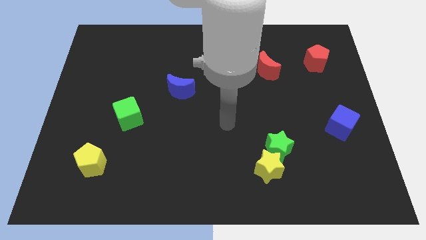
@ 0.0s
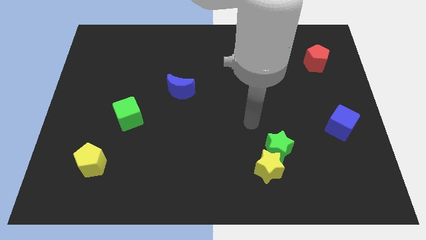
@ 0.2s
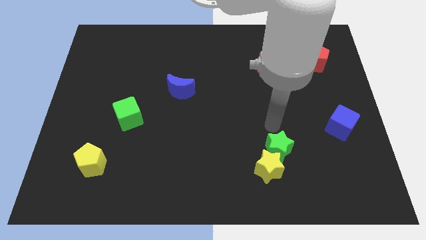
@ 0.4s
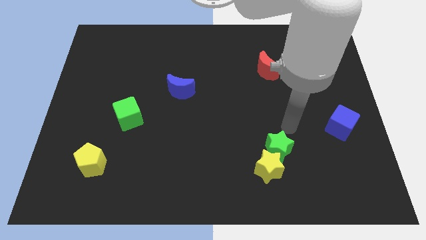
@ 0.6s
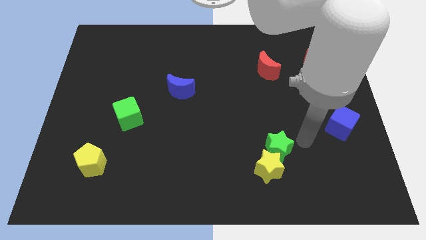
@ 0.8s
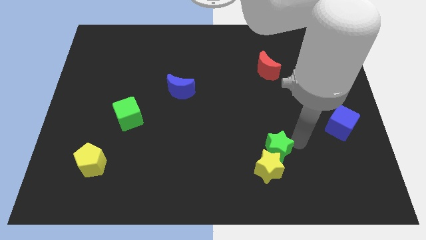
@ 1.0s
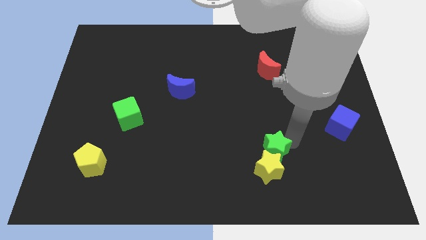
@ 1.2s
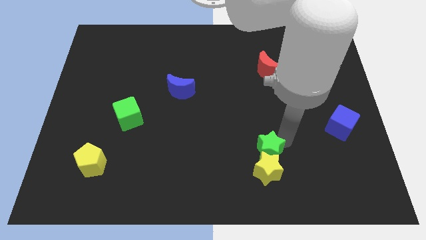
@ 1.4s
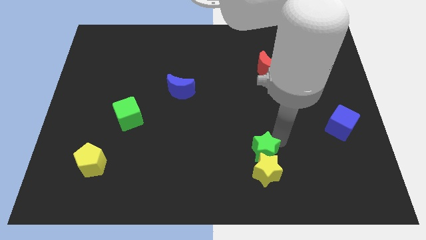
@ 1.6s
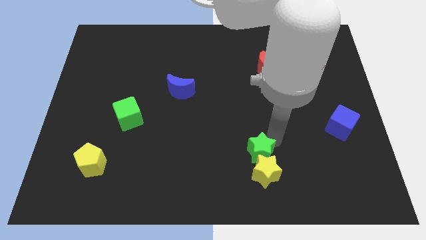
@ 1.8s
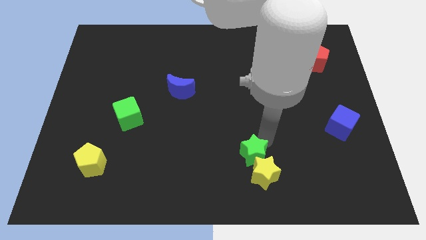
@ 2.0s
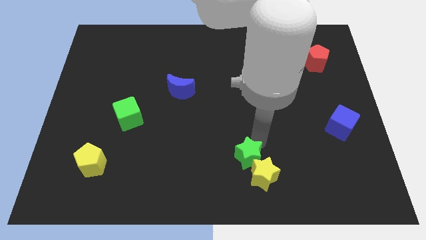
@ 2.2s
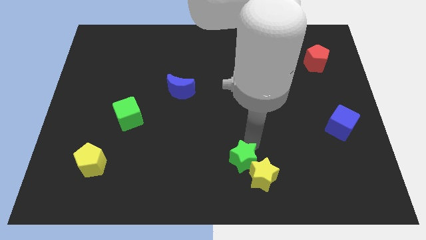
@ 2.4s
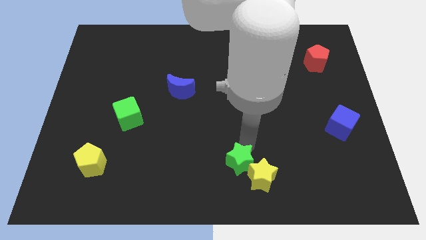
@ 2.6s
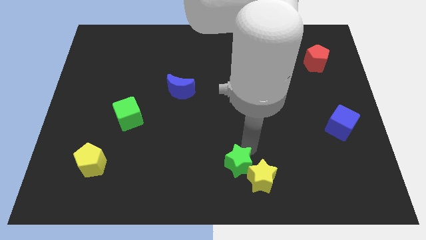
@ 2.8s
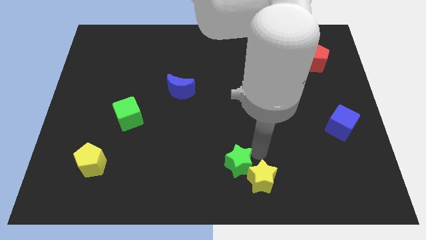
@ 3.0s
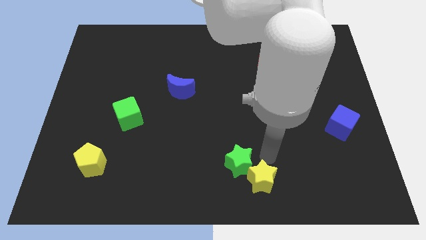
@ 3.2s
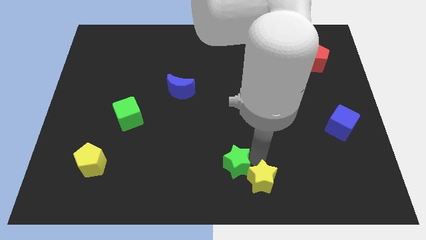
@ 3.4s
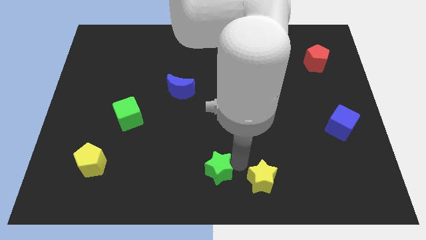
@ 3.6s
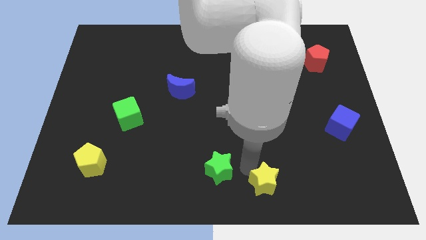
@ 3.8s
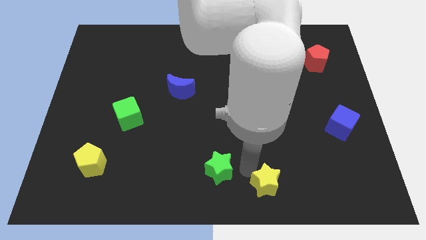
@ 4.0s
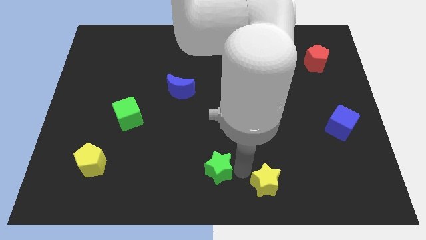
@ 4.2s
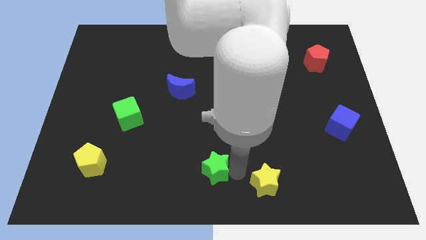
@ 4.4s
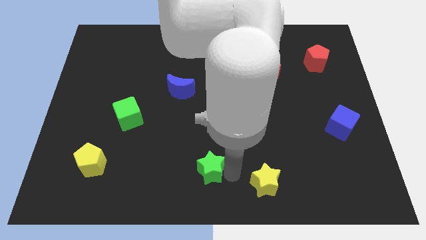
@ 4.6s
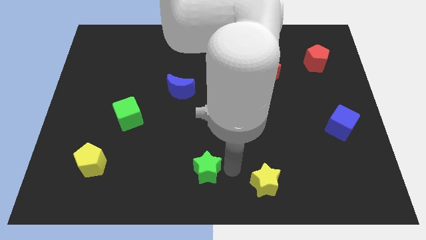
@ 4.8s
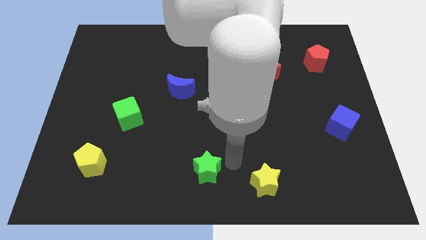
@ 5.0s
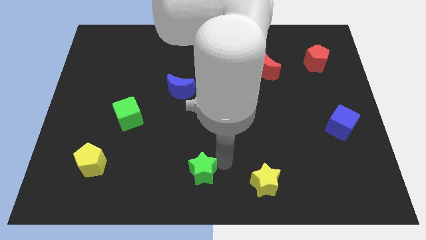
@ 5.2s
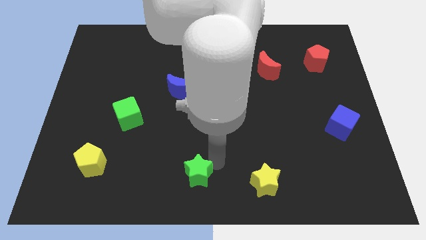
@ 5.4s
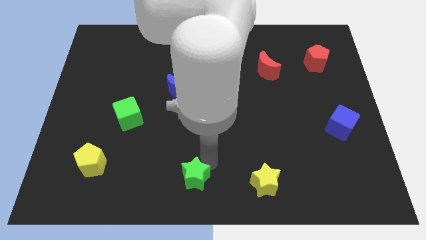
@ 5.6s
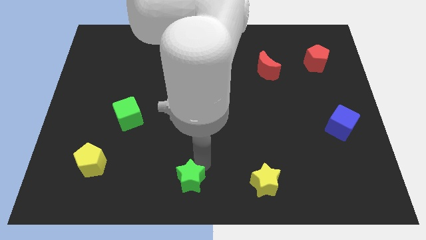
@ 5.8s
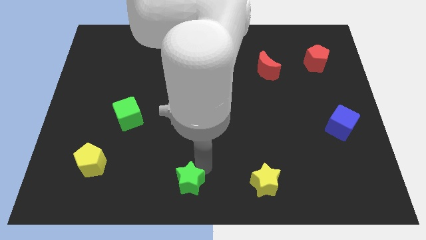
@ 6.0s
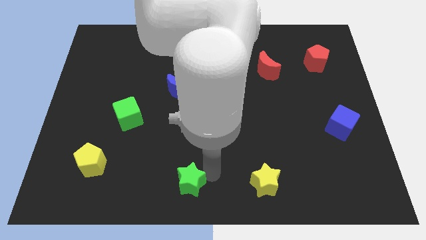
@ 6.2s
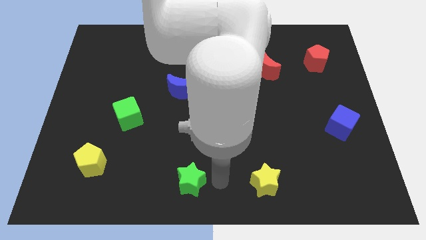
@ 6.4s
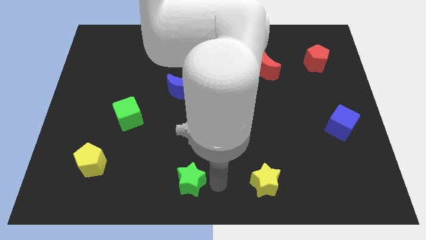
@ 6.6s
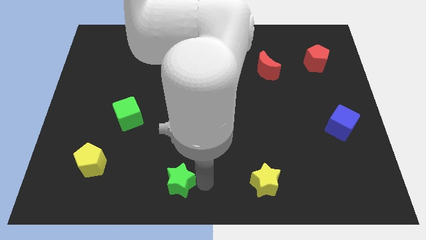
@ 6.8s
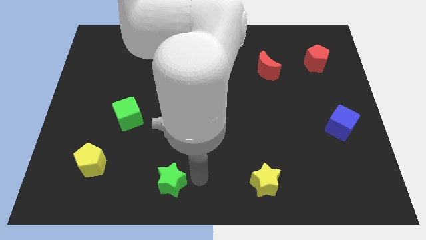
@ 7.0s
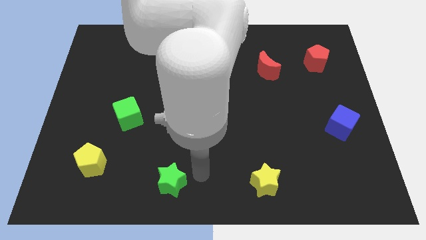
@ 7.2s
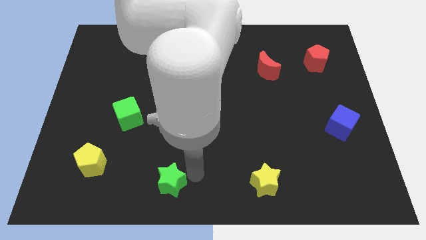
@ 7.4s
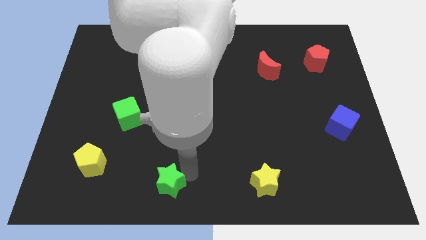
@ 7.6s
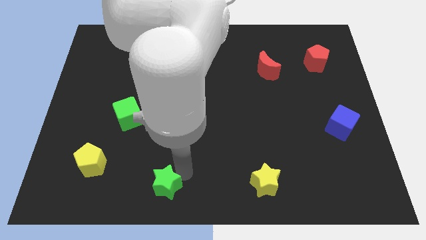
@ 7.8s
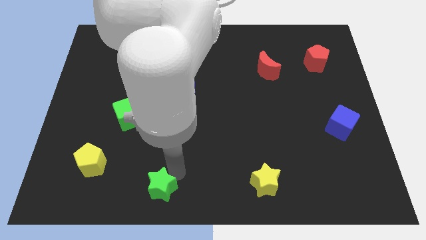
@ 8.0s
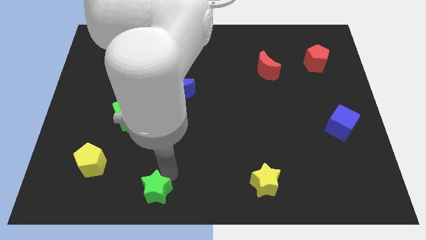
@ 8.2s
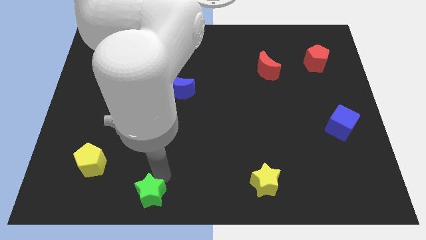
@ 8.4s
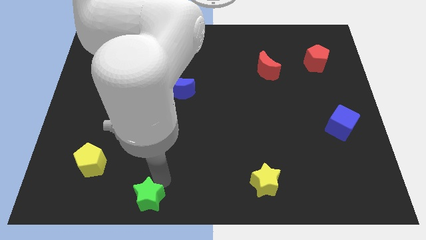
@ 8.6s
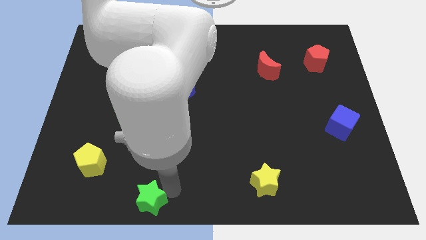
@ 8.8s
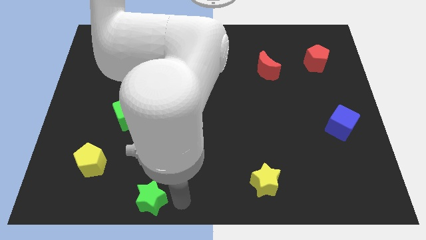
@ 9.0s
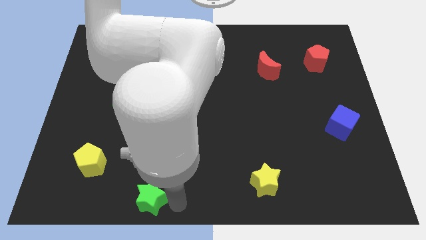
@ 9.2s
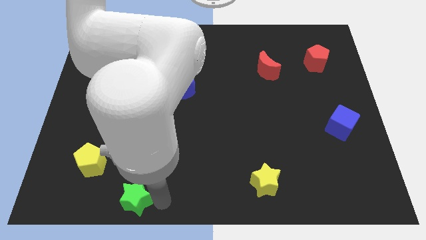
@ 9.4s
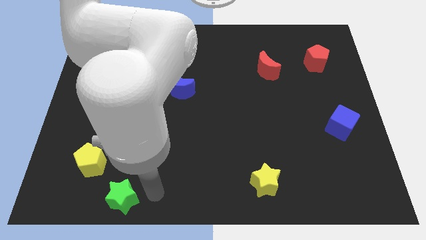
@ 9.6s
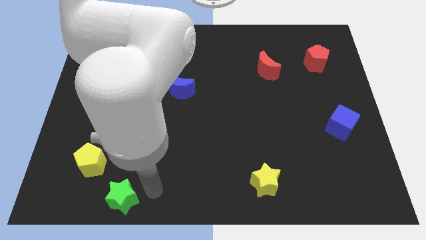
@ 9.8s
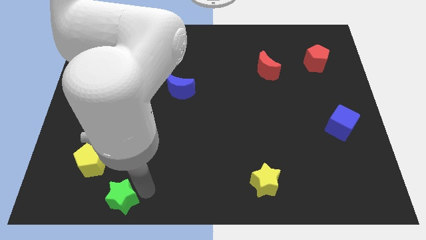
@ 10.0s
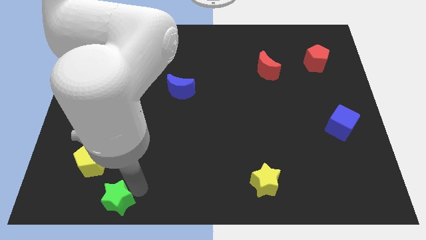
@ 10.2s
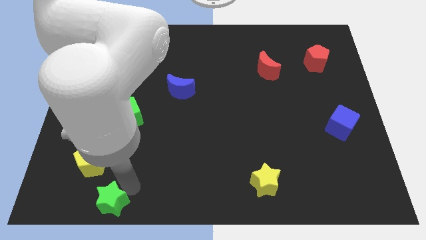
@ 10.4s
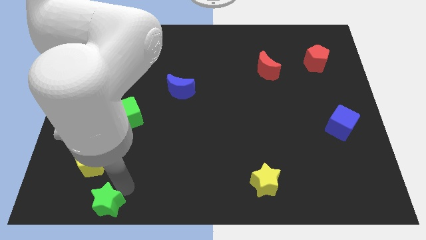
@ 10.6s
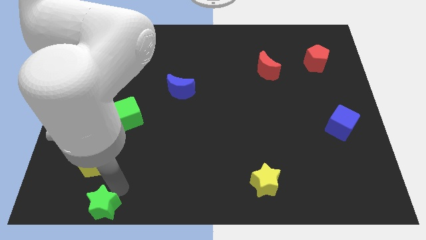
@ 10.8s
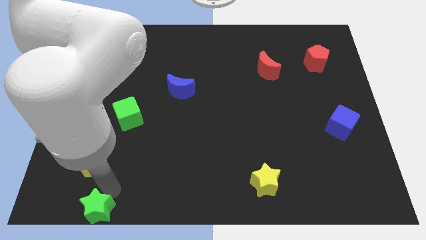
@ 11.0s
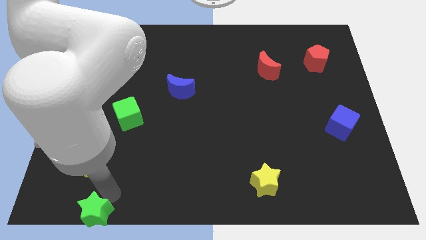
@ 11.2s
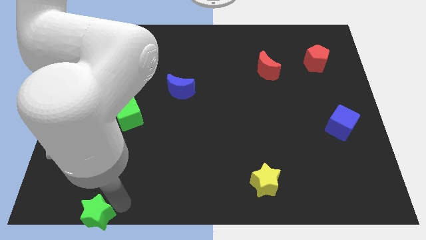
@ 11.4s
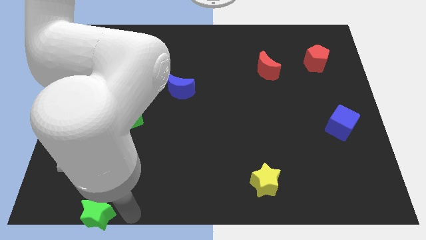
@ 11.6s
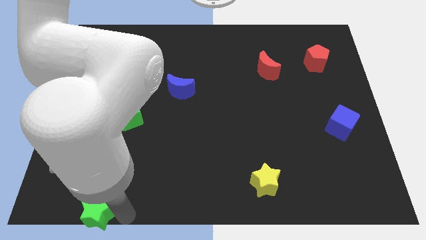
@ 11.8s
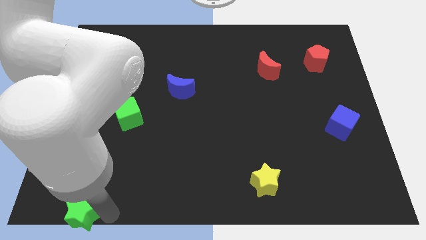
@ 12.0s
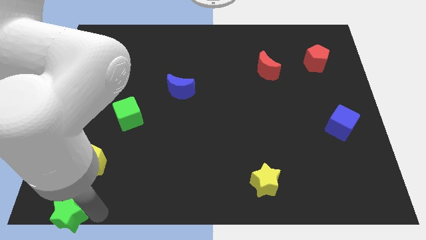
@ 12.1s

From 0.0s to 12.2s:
push the green star to the bottom left

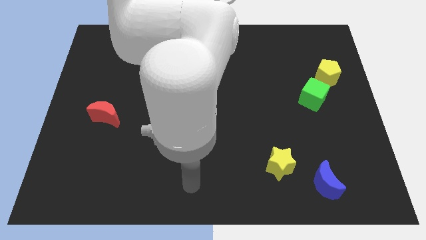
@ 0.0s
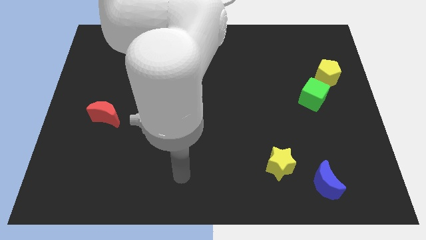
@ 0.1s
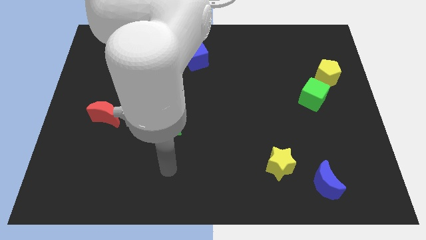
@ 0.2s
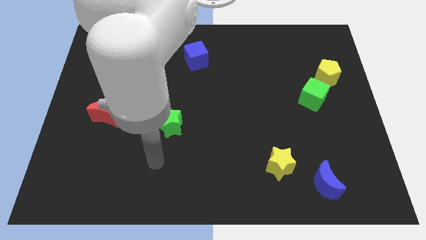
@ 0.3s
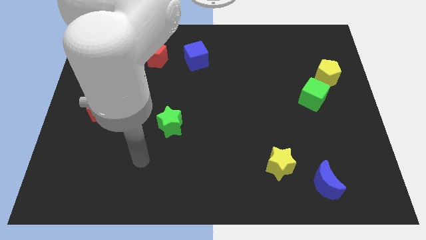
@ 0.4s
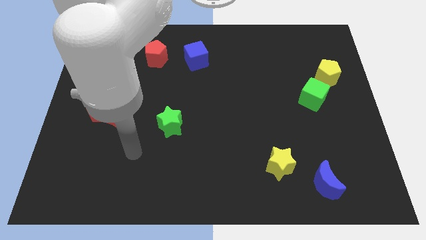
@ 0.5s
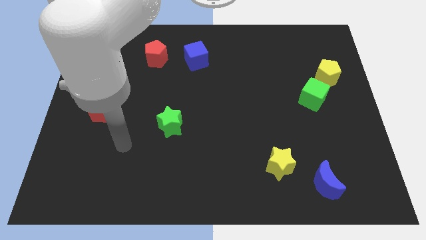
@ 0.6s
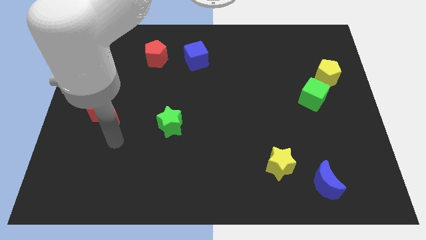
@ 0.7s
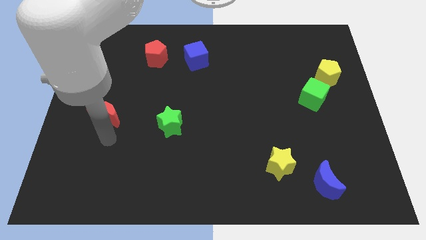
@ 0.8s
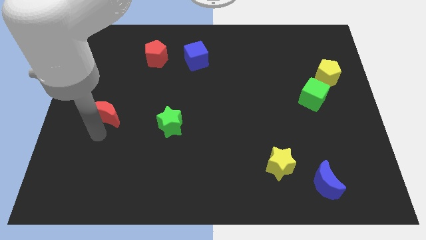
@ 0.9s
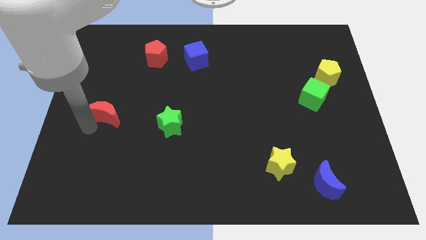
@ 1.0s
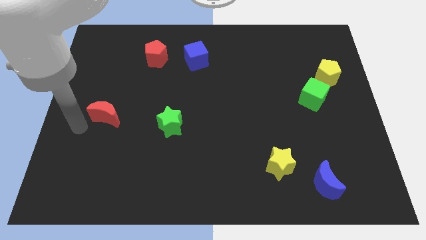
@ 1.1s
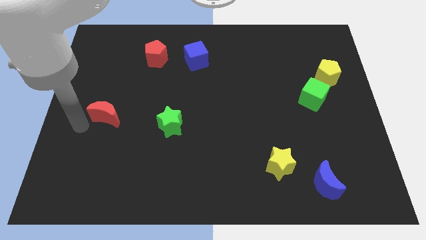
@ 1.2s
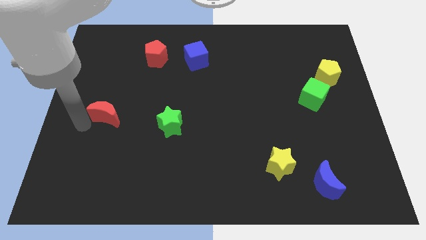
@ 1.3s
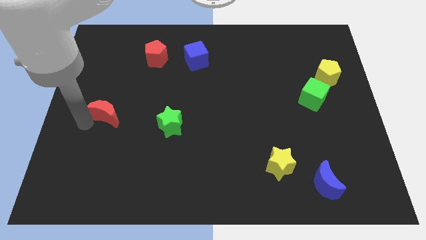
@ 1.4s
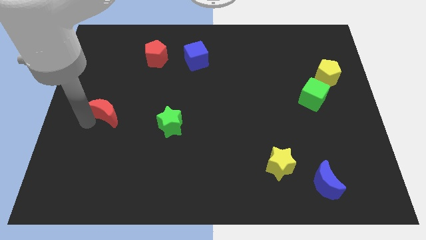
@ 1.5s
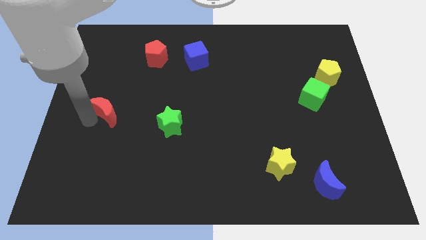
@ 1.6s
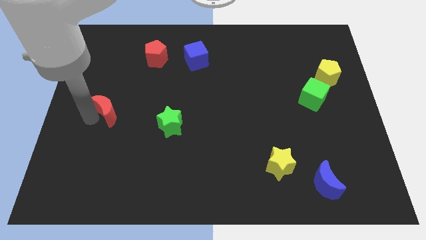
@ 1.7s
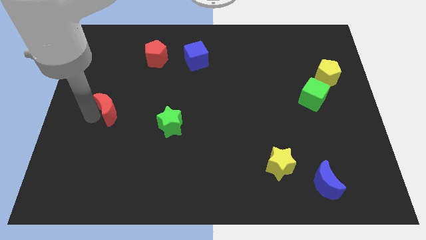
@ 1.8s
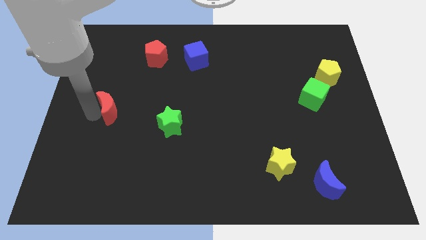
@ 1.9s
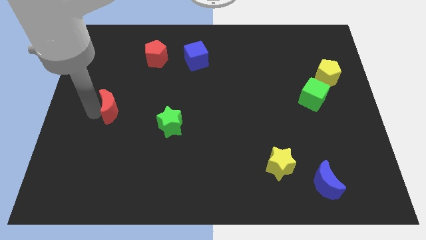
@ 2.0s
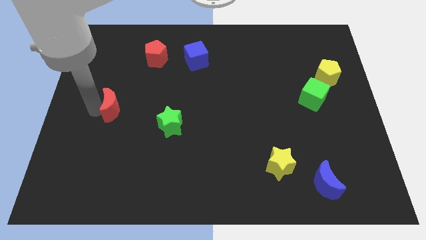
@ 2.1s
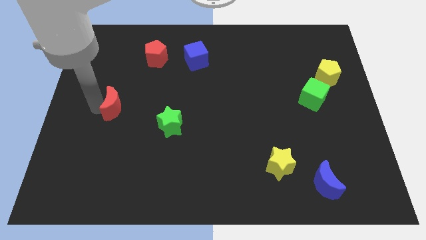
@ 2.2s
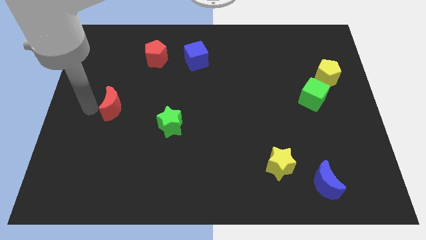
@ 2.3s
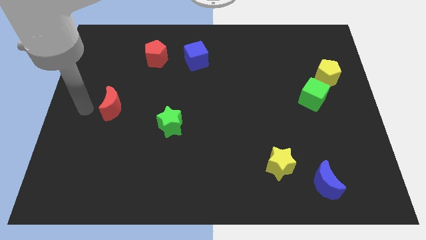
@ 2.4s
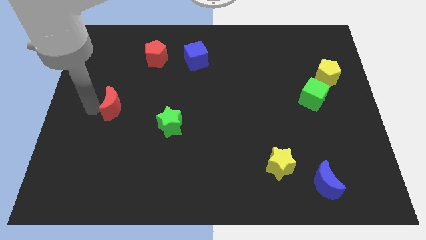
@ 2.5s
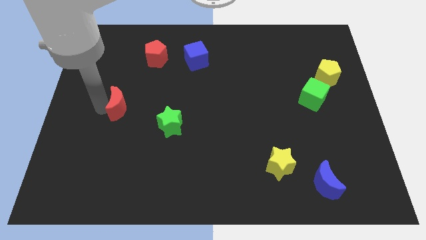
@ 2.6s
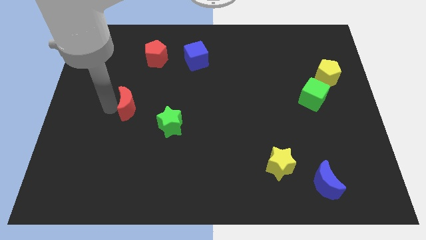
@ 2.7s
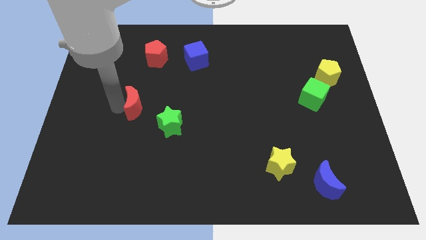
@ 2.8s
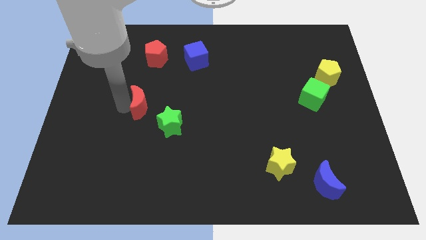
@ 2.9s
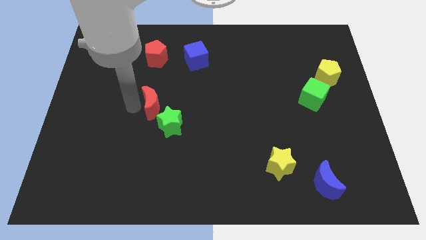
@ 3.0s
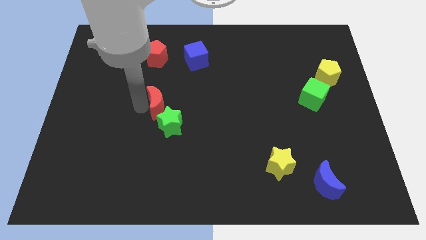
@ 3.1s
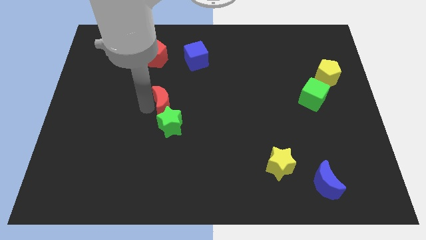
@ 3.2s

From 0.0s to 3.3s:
slide the red moon to the center
